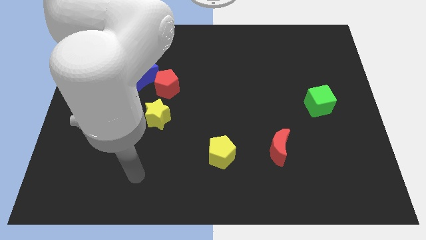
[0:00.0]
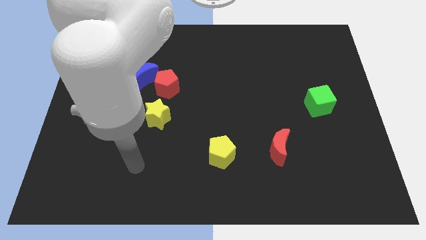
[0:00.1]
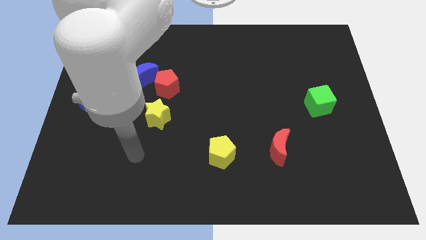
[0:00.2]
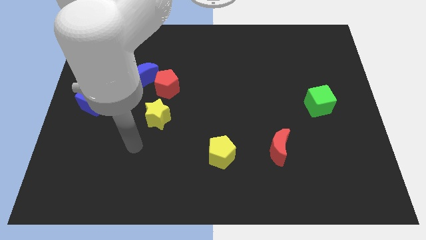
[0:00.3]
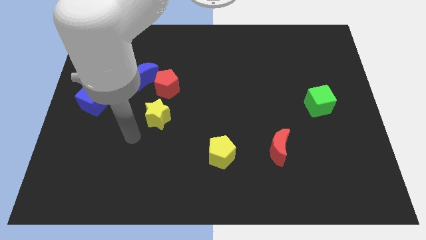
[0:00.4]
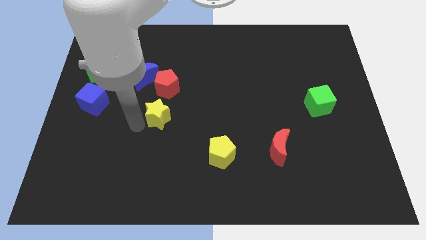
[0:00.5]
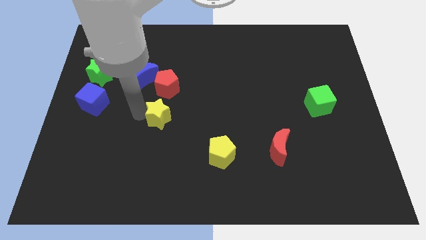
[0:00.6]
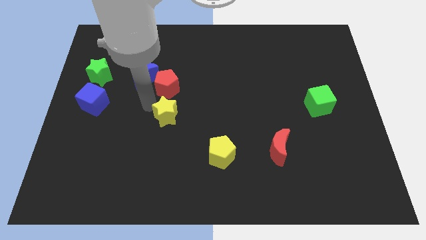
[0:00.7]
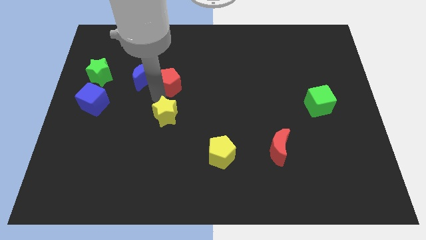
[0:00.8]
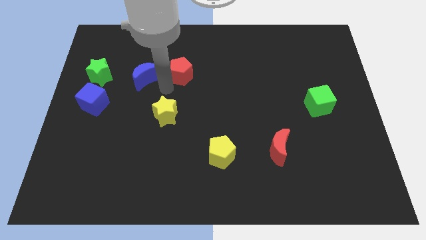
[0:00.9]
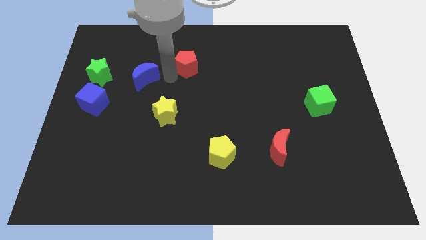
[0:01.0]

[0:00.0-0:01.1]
move the blue moon away from the red pentagon

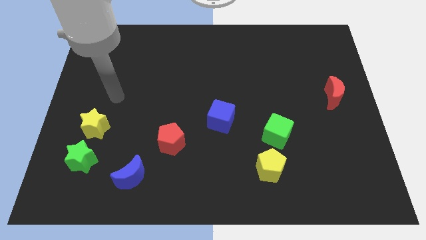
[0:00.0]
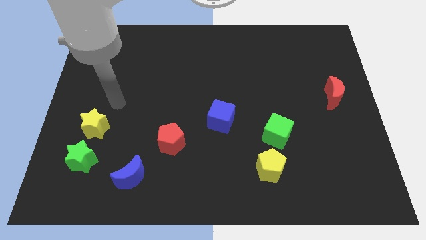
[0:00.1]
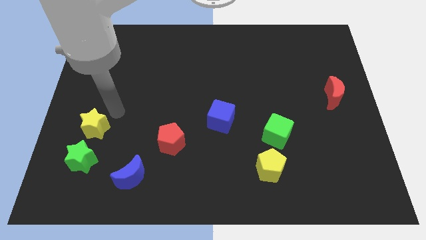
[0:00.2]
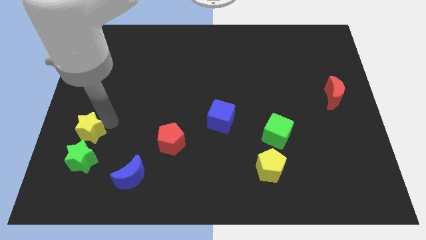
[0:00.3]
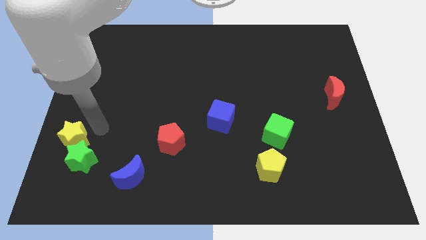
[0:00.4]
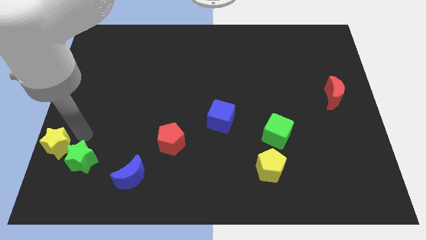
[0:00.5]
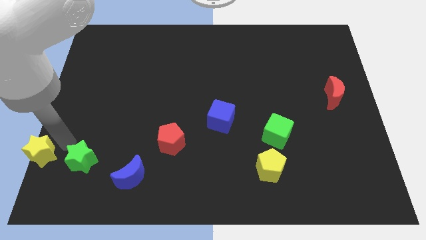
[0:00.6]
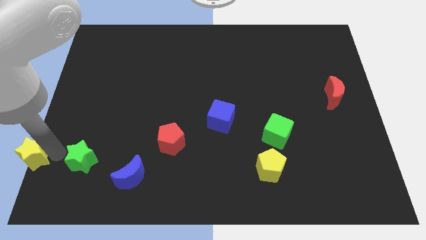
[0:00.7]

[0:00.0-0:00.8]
pull the green star apart from the yellow star

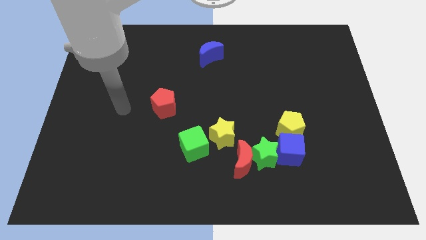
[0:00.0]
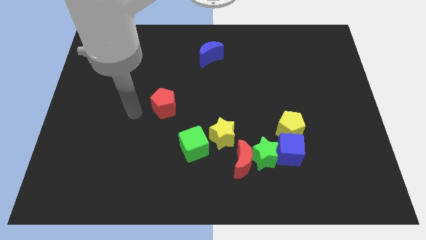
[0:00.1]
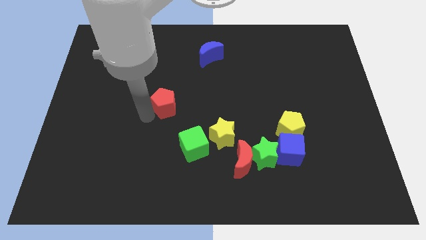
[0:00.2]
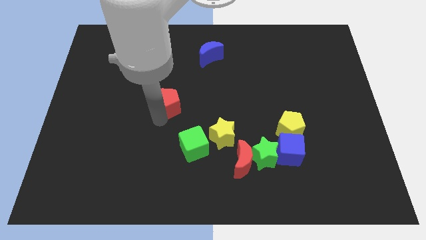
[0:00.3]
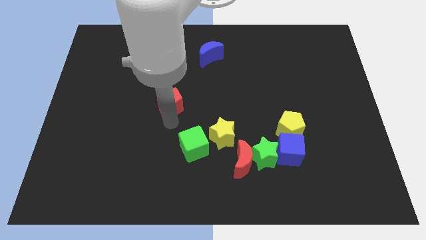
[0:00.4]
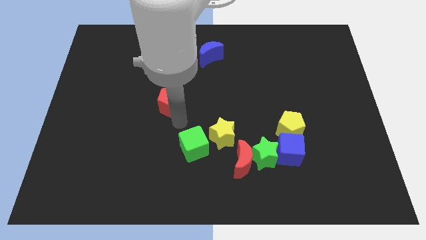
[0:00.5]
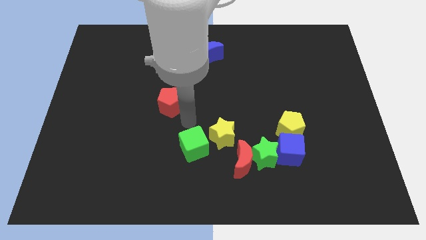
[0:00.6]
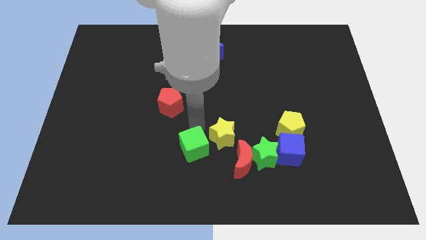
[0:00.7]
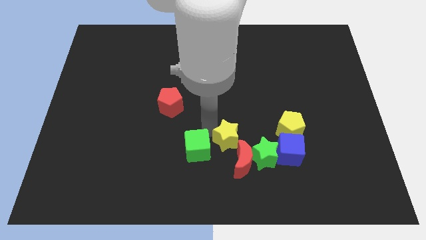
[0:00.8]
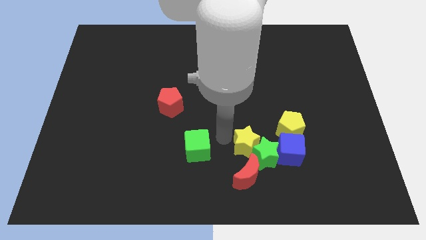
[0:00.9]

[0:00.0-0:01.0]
move the green cube away from the yellow star

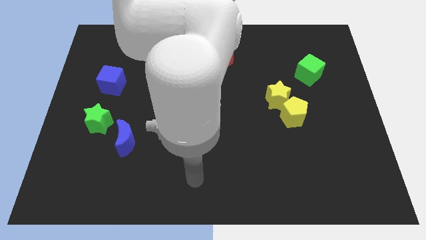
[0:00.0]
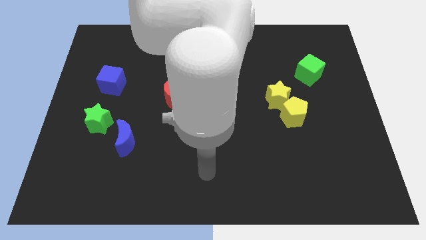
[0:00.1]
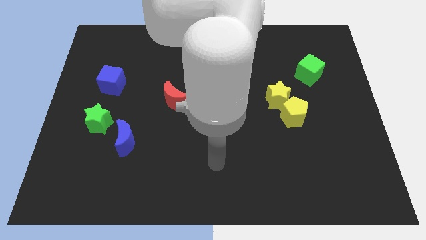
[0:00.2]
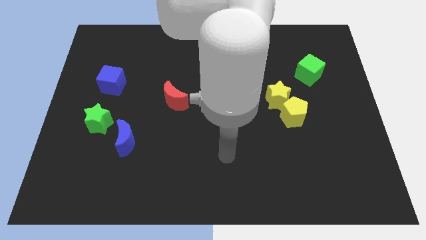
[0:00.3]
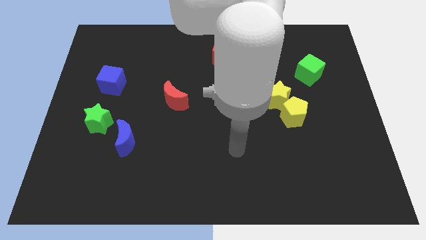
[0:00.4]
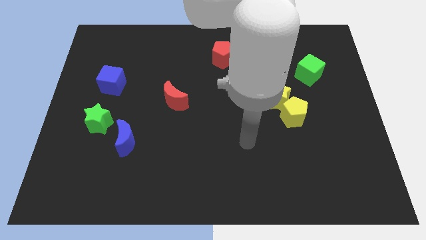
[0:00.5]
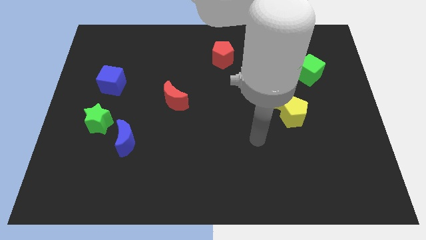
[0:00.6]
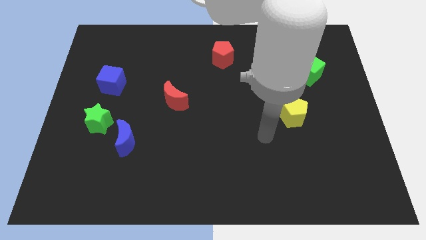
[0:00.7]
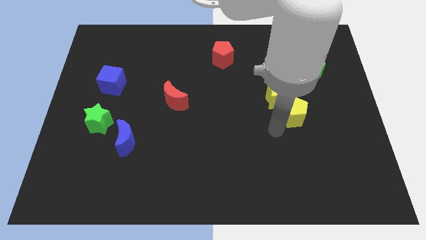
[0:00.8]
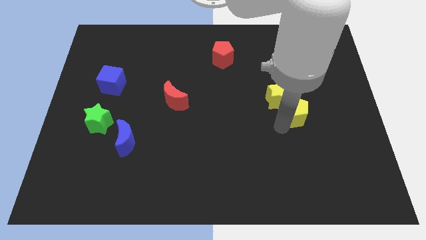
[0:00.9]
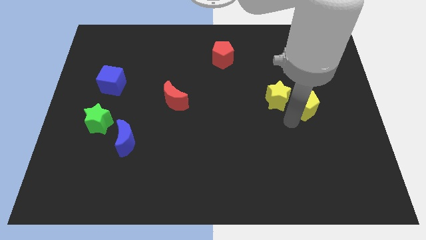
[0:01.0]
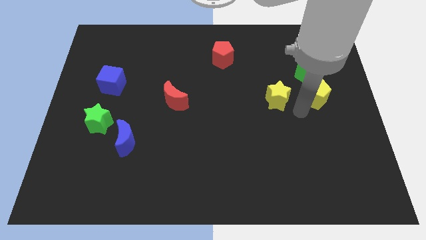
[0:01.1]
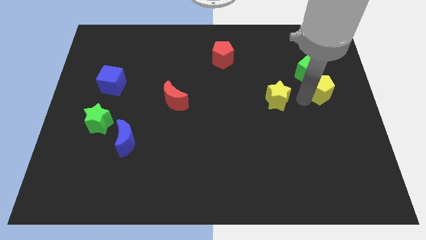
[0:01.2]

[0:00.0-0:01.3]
pull the yellow star apart from the yellow pentagon

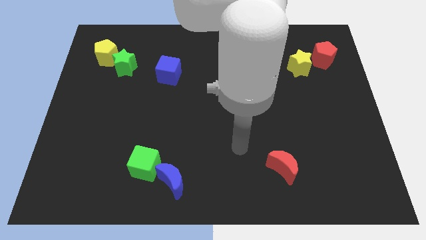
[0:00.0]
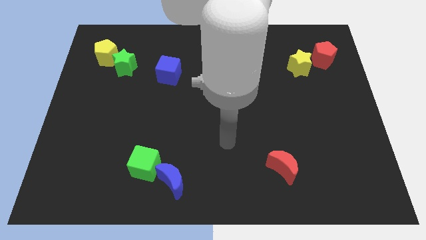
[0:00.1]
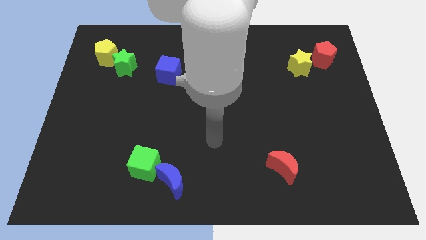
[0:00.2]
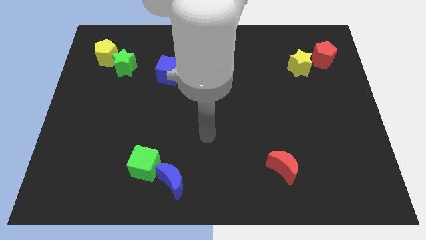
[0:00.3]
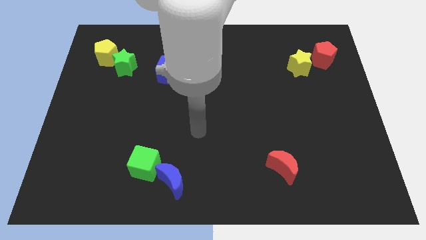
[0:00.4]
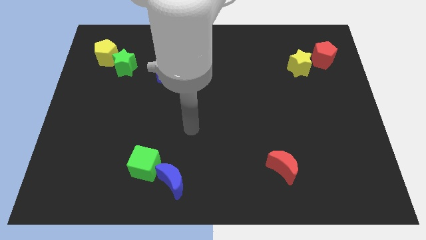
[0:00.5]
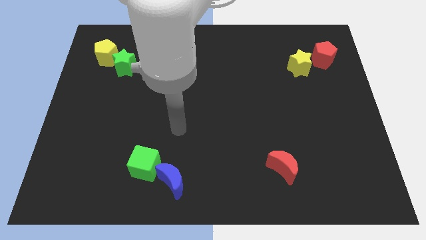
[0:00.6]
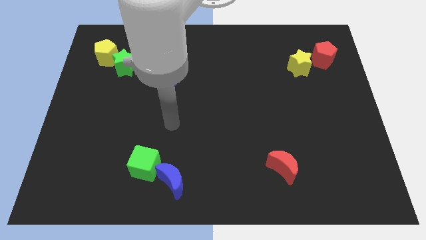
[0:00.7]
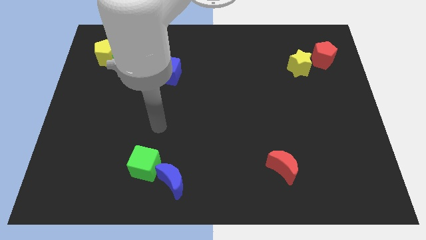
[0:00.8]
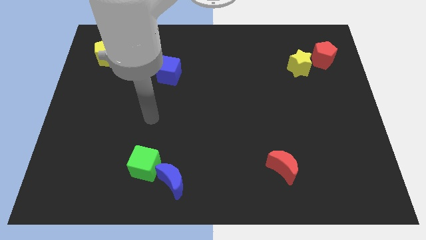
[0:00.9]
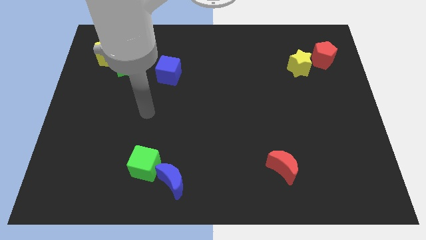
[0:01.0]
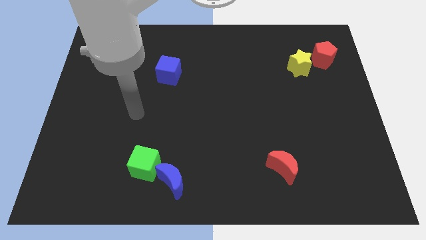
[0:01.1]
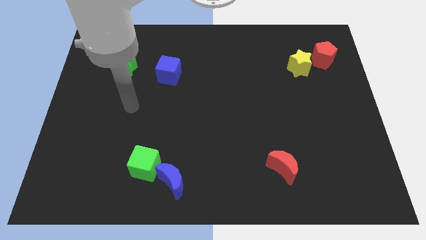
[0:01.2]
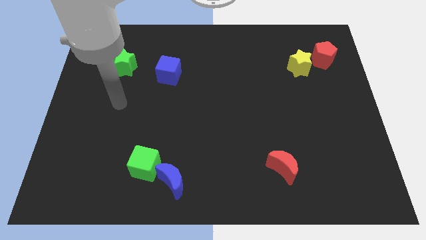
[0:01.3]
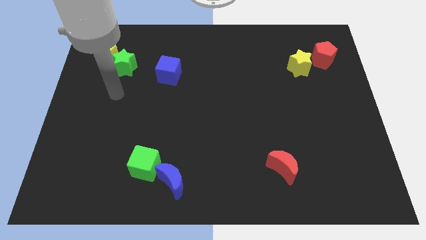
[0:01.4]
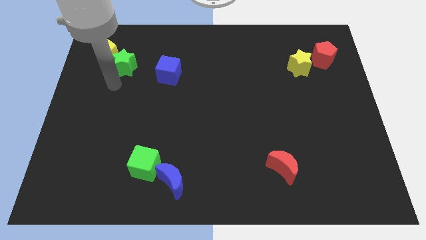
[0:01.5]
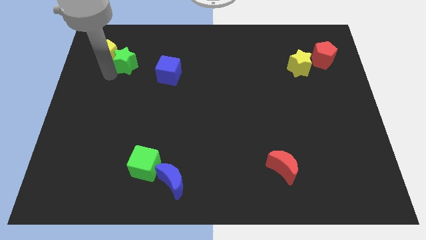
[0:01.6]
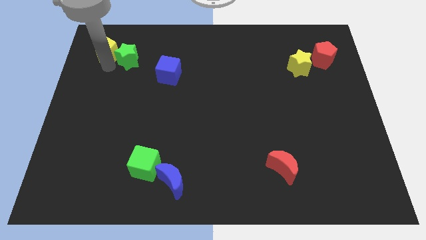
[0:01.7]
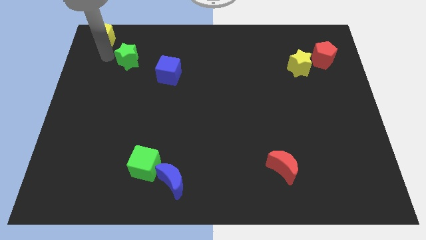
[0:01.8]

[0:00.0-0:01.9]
pull the green star apart from the yellow pentagon

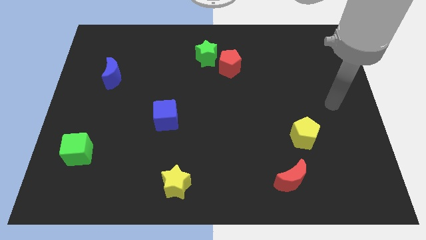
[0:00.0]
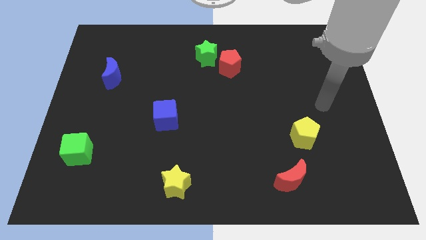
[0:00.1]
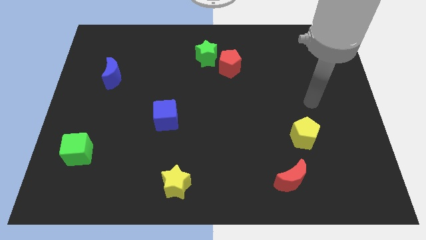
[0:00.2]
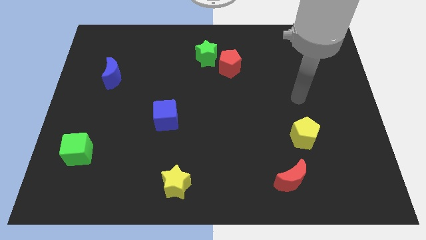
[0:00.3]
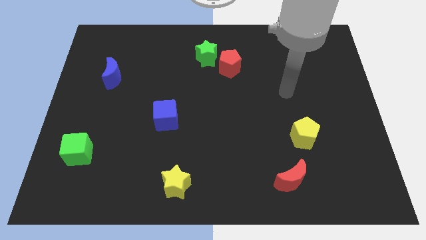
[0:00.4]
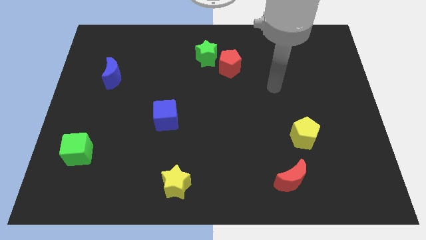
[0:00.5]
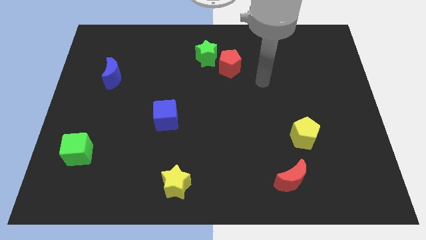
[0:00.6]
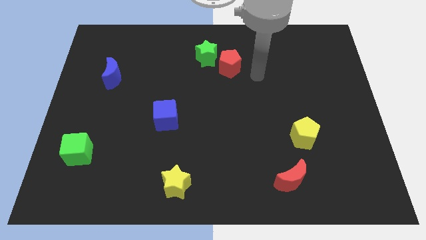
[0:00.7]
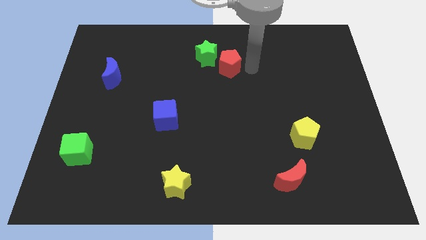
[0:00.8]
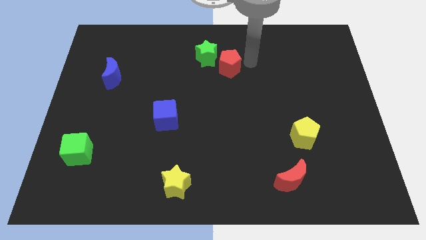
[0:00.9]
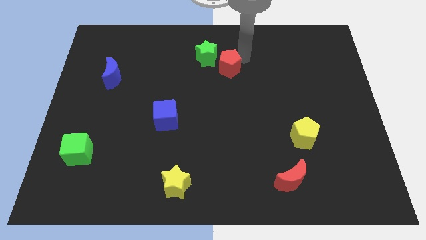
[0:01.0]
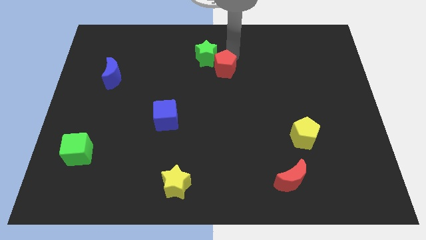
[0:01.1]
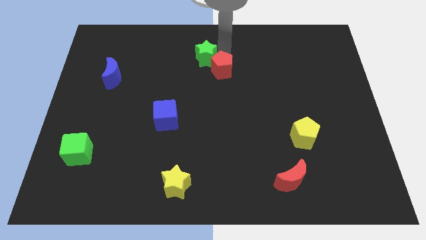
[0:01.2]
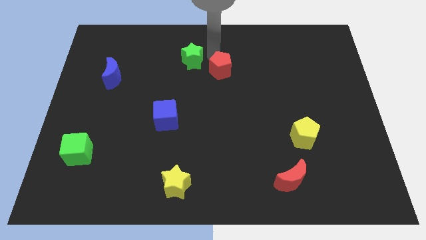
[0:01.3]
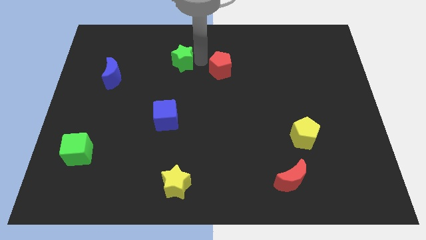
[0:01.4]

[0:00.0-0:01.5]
separate the red pentagon from the green star

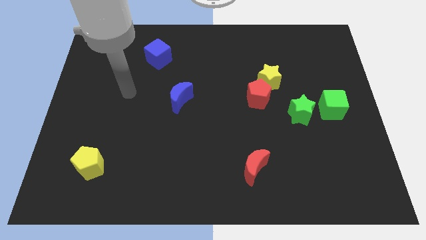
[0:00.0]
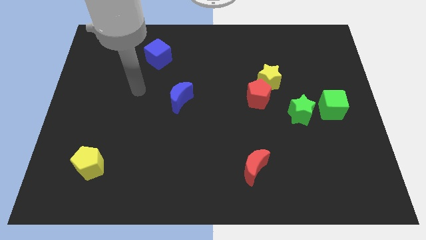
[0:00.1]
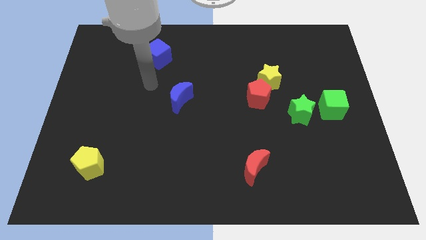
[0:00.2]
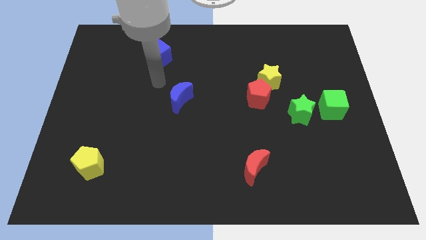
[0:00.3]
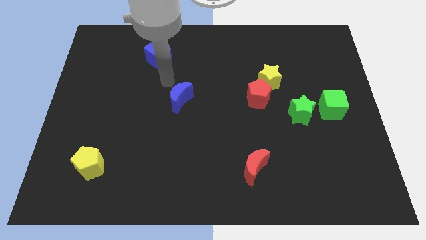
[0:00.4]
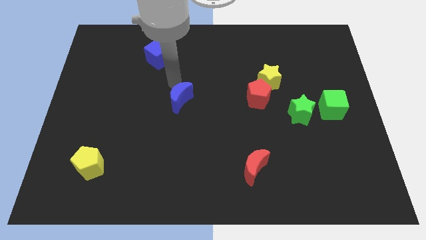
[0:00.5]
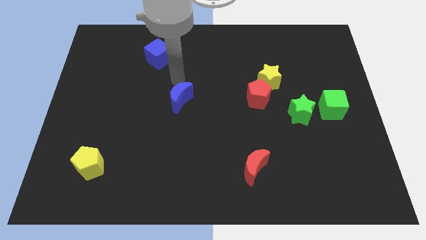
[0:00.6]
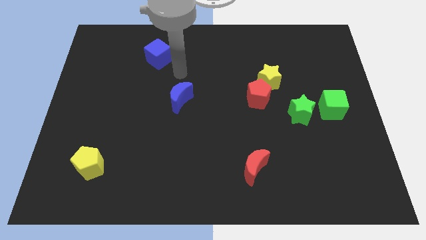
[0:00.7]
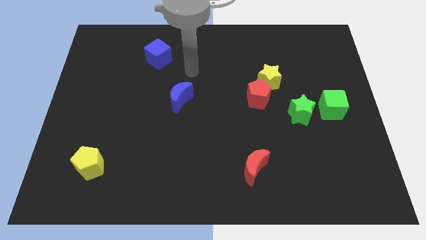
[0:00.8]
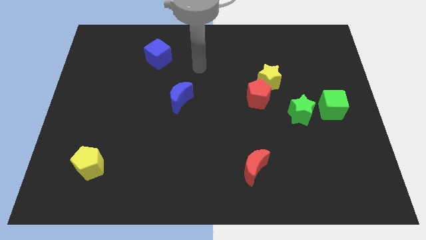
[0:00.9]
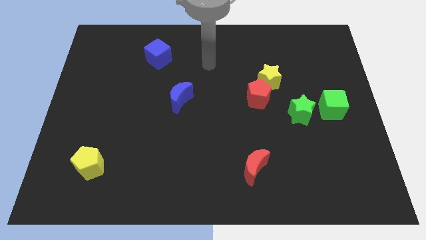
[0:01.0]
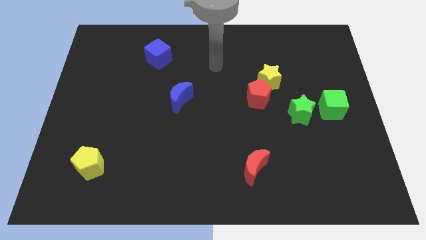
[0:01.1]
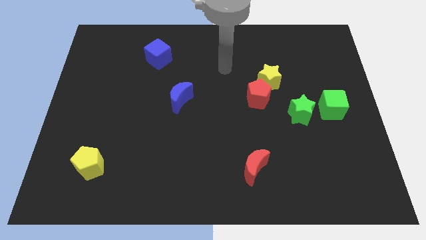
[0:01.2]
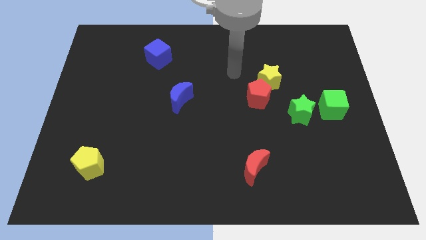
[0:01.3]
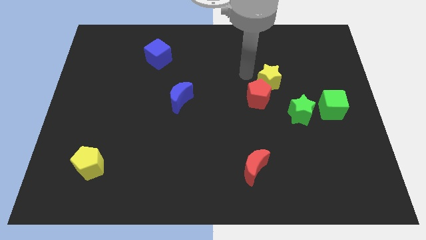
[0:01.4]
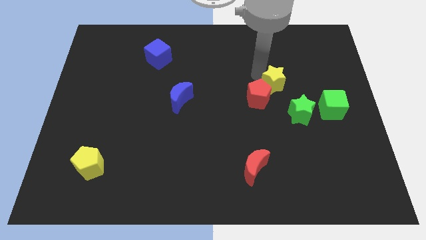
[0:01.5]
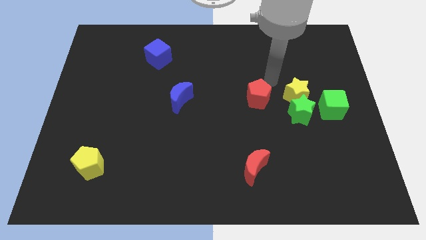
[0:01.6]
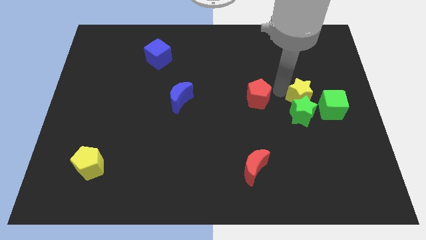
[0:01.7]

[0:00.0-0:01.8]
pull the red pentagon apart from the yellow star
